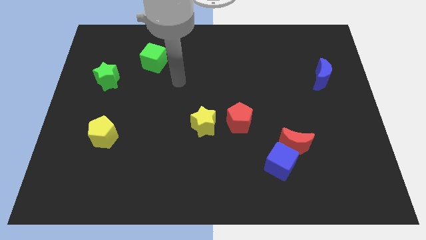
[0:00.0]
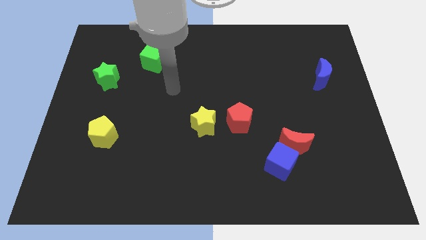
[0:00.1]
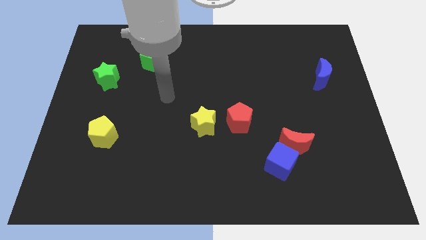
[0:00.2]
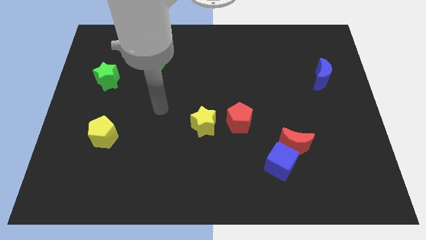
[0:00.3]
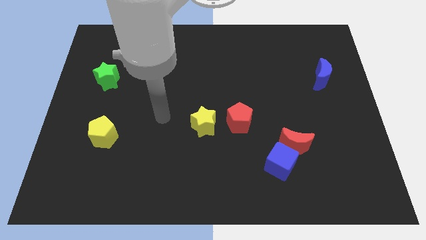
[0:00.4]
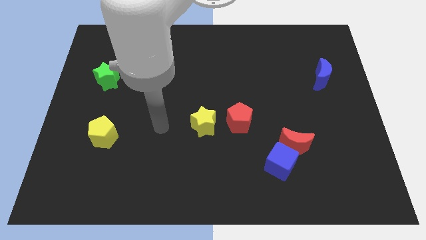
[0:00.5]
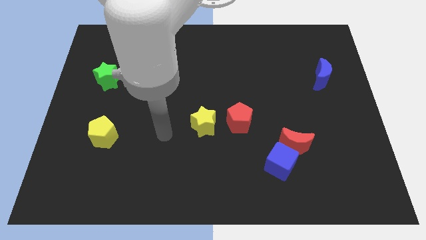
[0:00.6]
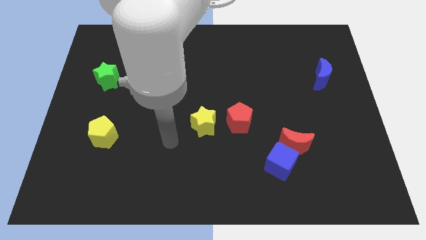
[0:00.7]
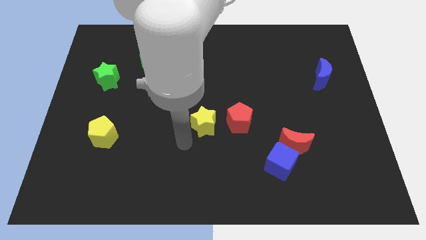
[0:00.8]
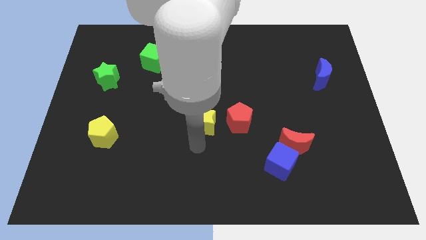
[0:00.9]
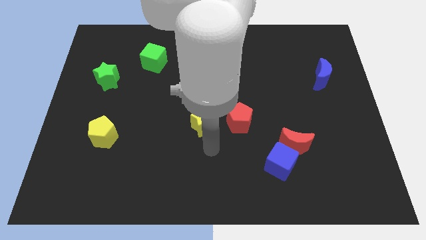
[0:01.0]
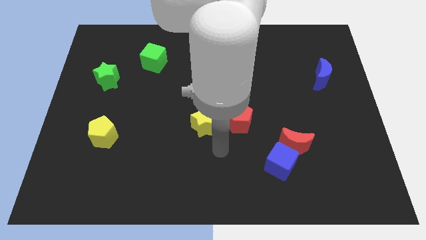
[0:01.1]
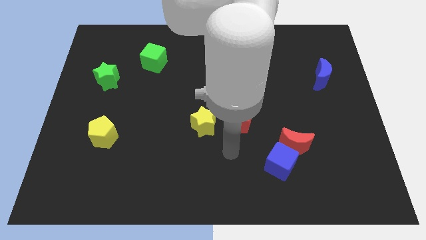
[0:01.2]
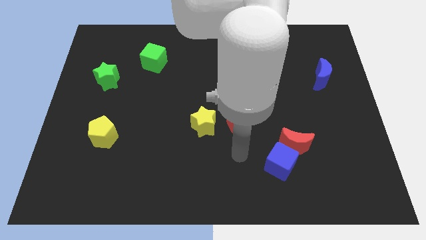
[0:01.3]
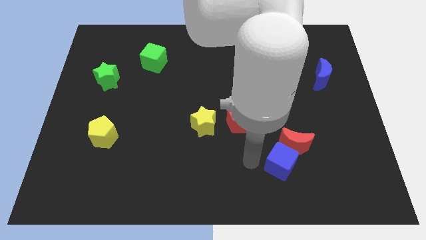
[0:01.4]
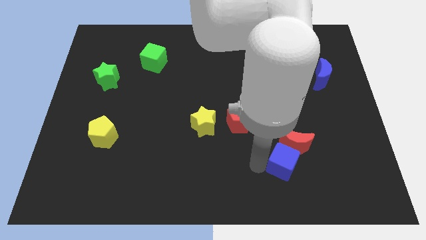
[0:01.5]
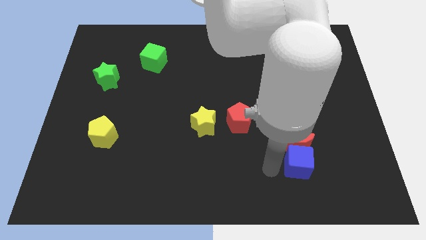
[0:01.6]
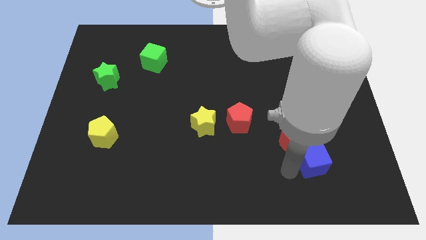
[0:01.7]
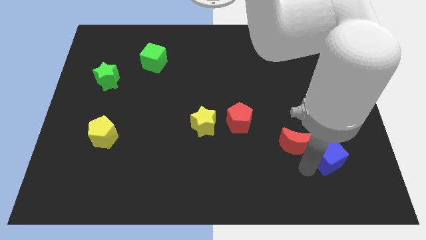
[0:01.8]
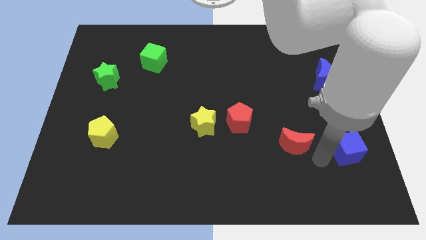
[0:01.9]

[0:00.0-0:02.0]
separate the red moon from the blue cube

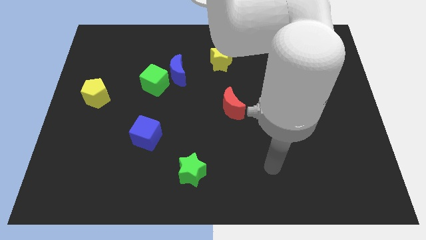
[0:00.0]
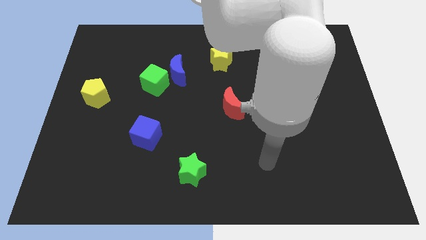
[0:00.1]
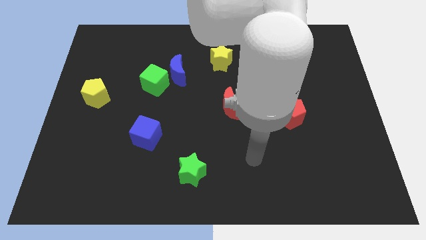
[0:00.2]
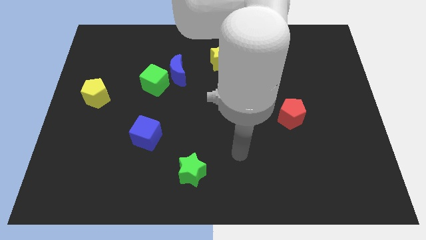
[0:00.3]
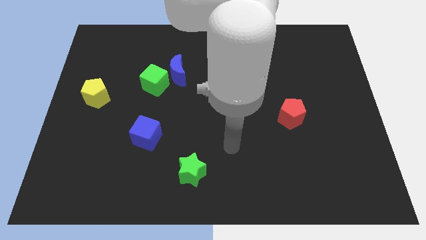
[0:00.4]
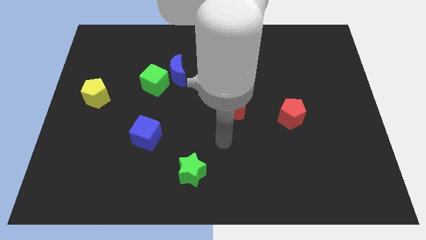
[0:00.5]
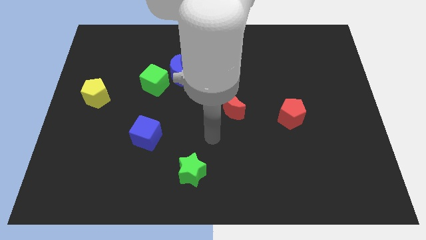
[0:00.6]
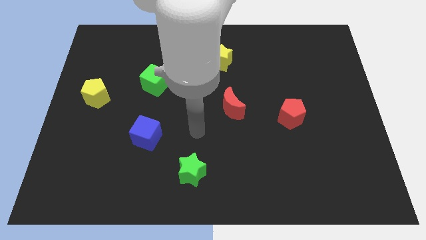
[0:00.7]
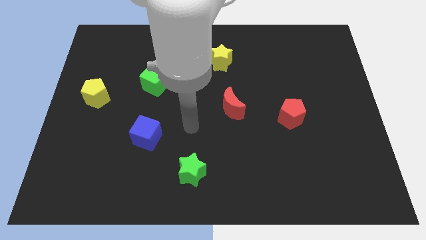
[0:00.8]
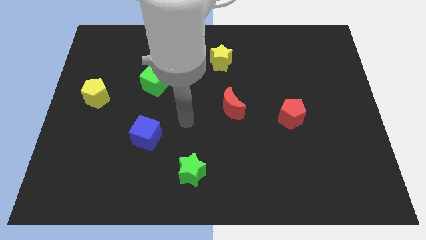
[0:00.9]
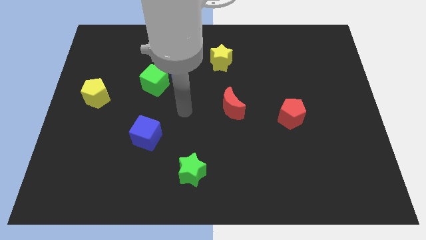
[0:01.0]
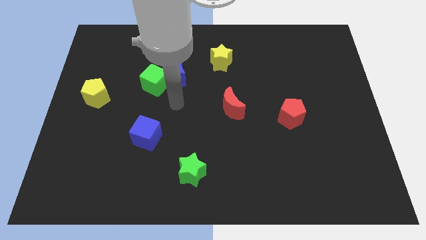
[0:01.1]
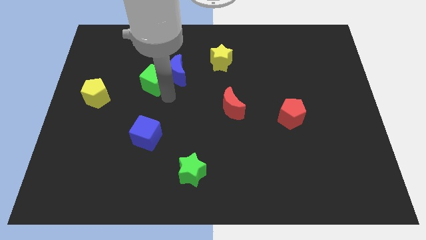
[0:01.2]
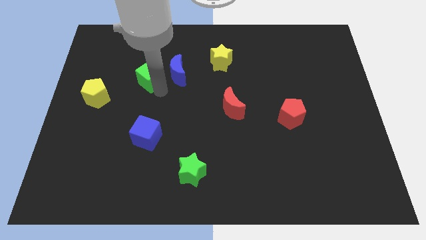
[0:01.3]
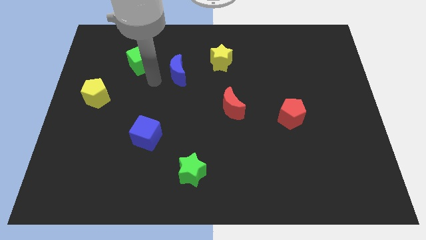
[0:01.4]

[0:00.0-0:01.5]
separate the blue moon from the green cube

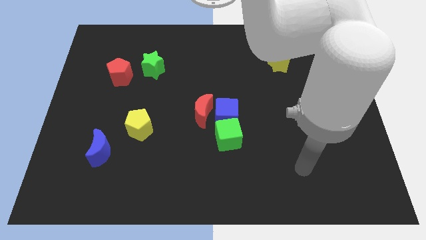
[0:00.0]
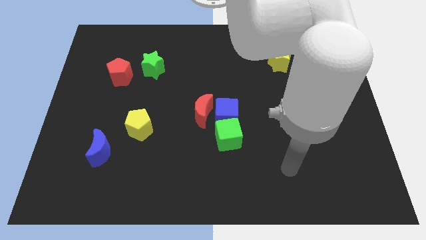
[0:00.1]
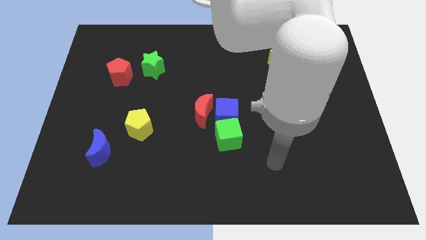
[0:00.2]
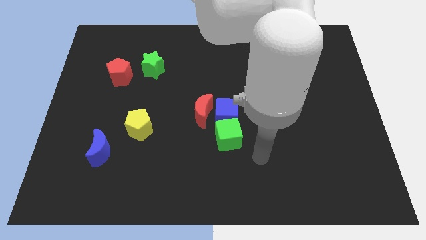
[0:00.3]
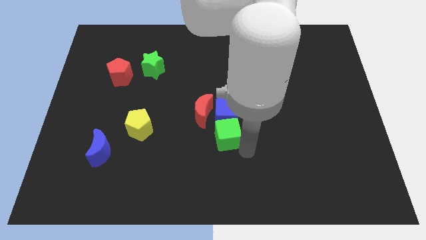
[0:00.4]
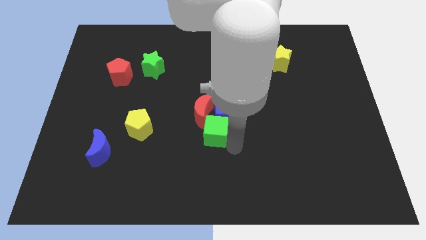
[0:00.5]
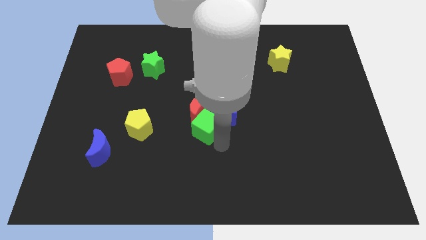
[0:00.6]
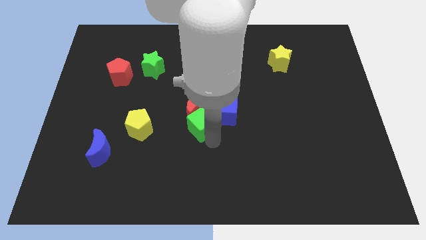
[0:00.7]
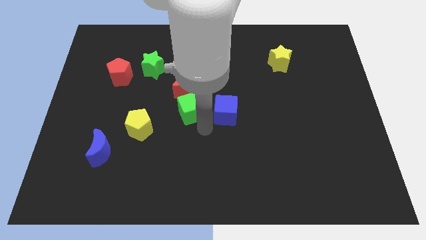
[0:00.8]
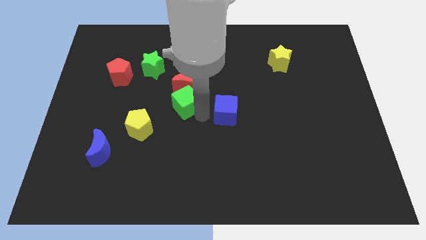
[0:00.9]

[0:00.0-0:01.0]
separate the blue cube from the red moon and green cube

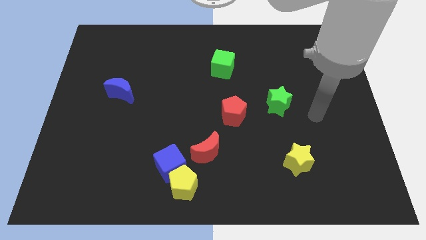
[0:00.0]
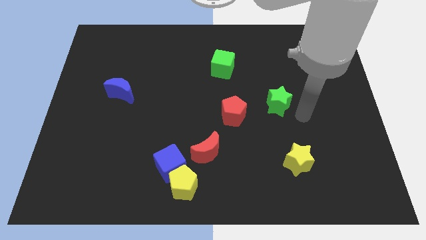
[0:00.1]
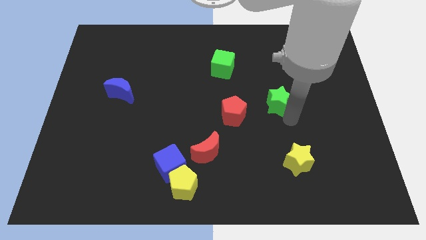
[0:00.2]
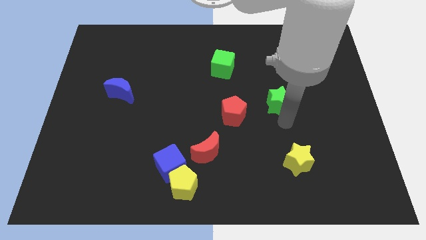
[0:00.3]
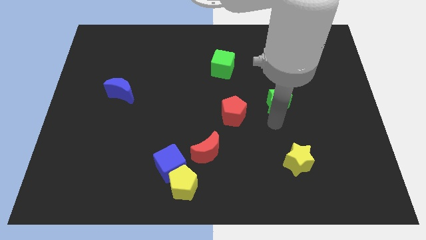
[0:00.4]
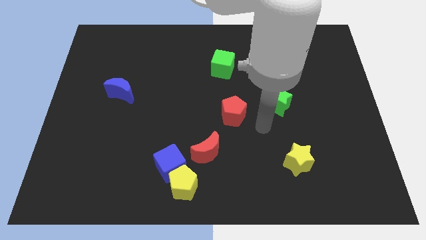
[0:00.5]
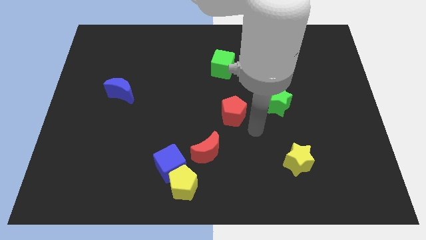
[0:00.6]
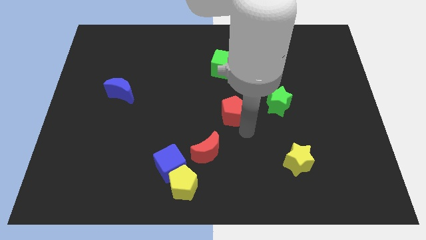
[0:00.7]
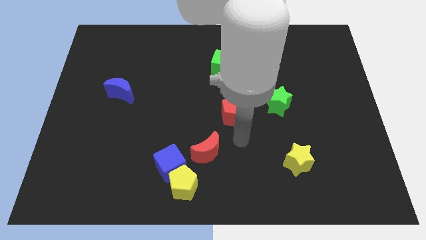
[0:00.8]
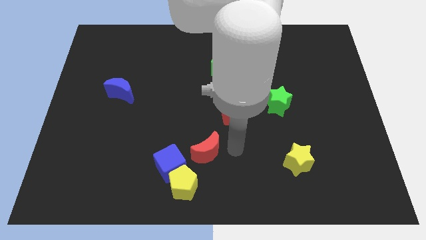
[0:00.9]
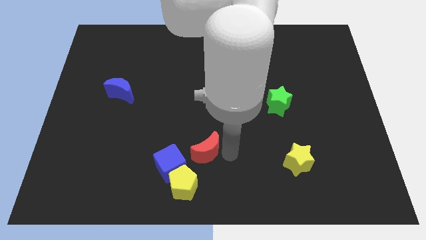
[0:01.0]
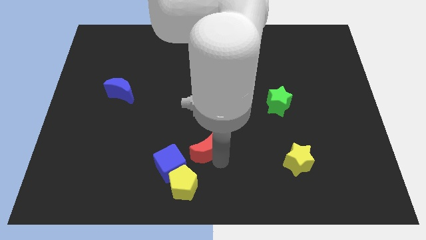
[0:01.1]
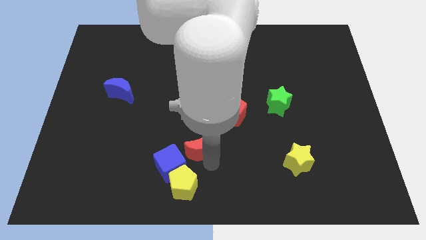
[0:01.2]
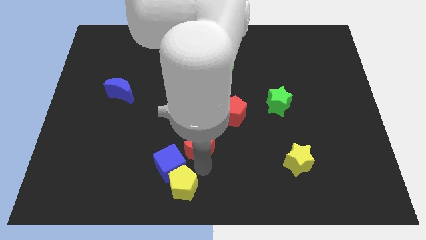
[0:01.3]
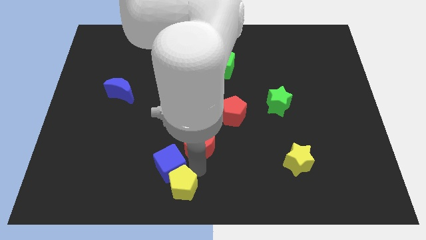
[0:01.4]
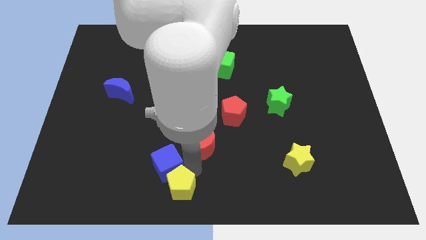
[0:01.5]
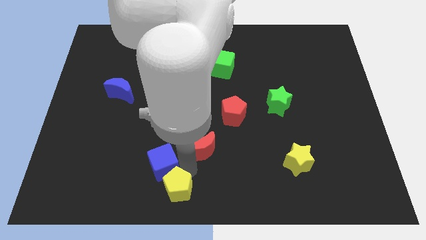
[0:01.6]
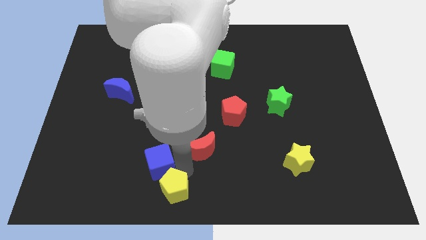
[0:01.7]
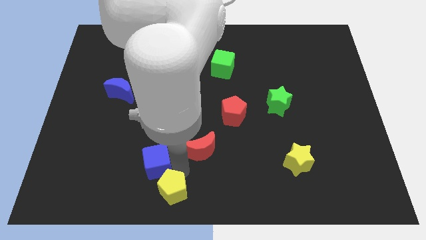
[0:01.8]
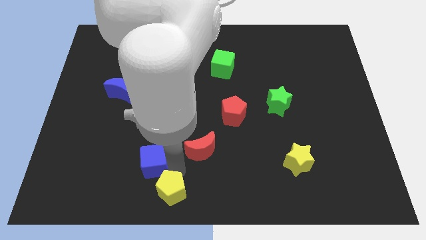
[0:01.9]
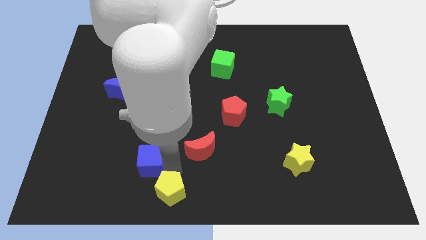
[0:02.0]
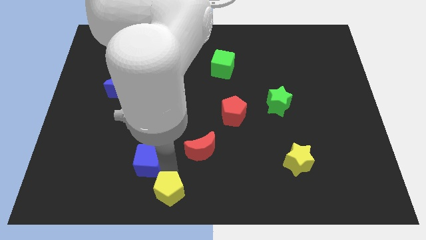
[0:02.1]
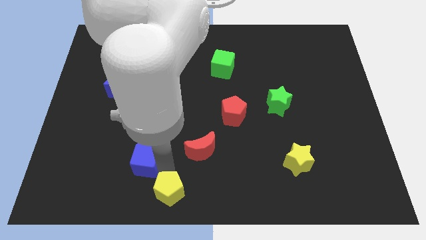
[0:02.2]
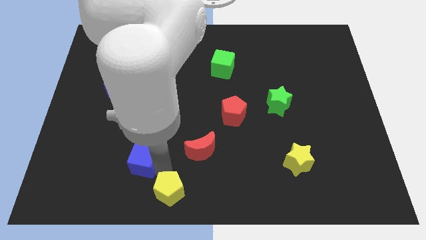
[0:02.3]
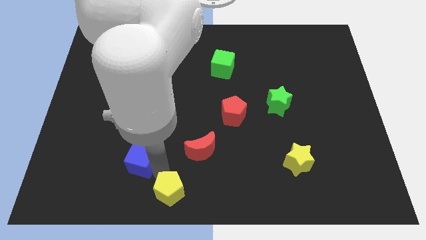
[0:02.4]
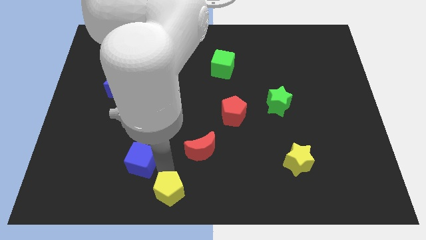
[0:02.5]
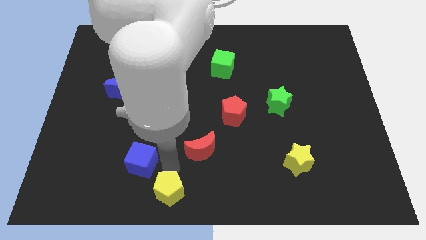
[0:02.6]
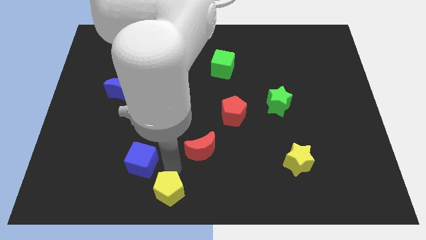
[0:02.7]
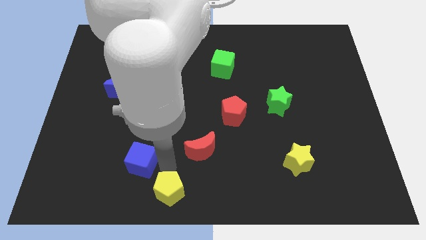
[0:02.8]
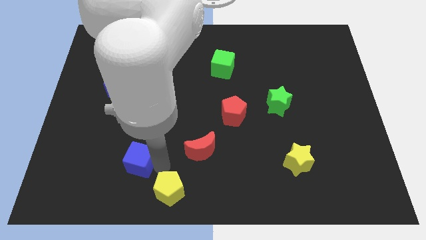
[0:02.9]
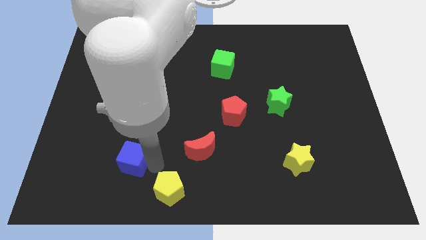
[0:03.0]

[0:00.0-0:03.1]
separate the blue cube from the yellow pentagon and red moon

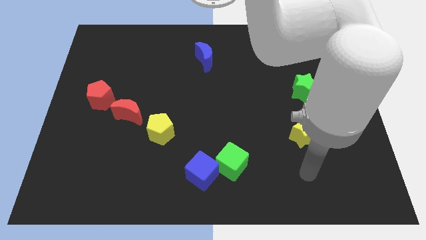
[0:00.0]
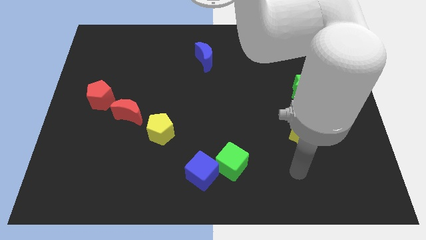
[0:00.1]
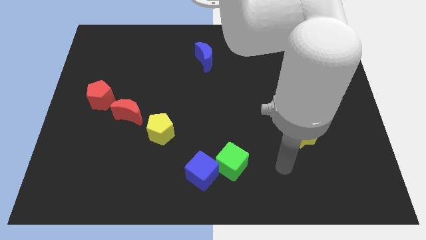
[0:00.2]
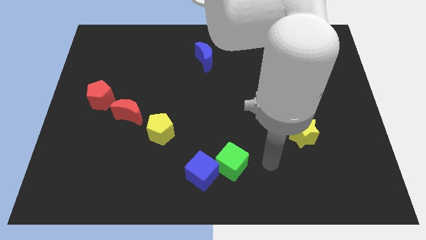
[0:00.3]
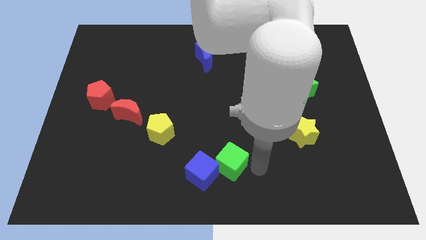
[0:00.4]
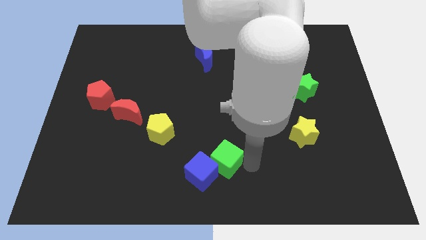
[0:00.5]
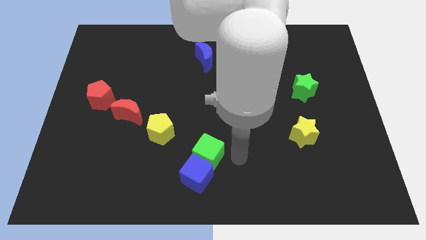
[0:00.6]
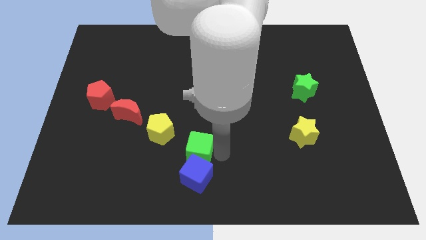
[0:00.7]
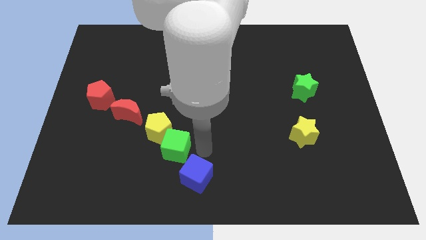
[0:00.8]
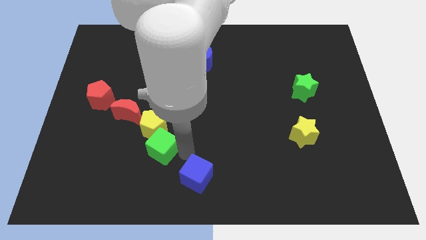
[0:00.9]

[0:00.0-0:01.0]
separate the blue cube from the green cube

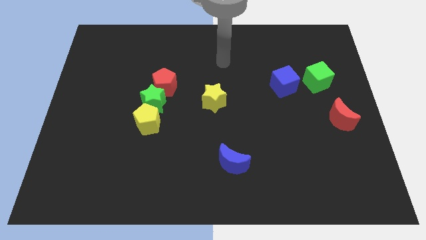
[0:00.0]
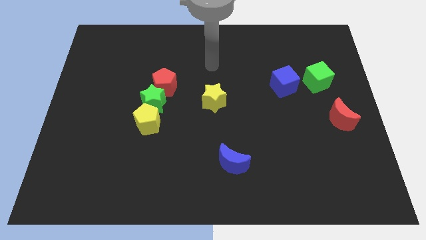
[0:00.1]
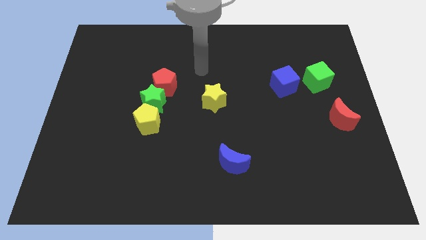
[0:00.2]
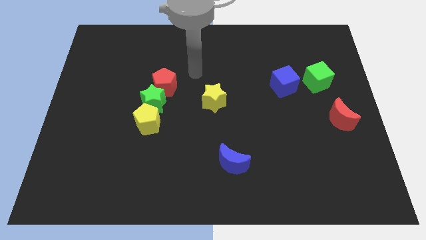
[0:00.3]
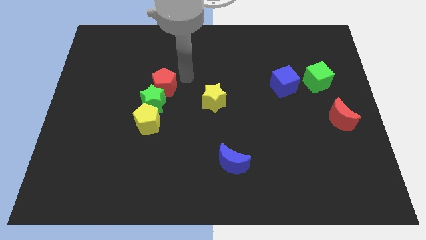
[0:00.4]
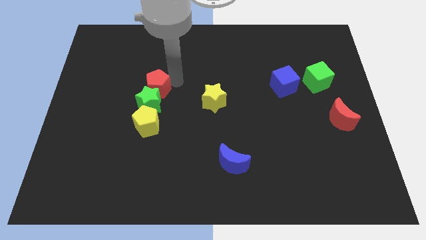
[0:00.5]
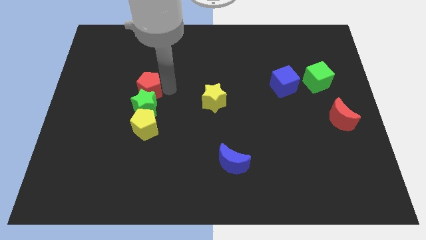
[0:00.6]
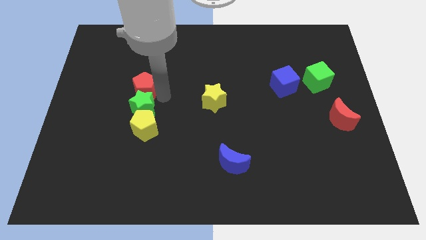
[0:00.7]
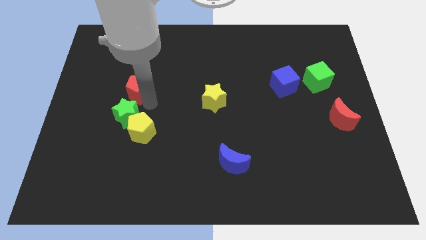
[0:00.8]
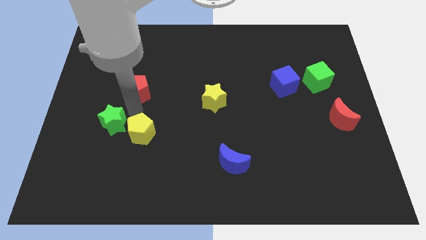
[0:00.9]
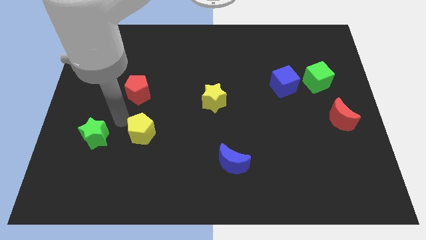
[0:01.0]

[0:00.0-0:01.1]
move the yellow pentagon away from the green star
